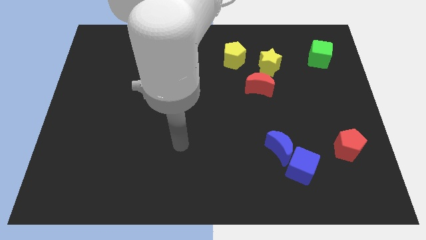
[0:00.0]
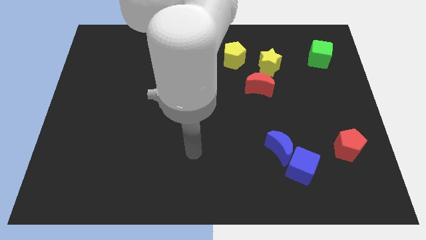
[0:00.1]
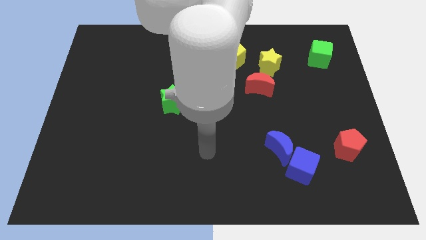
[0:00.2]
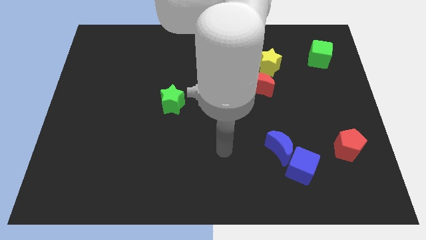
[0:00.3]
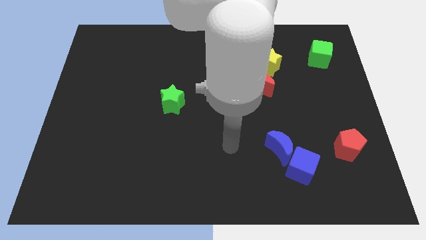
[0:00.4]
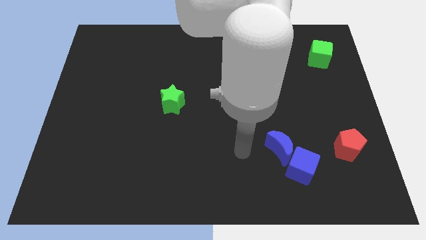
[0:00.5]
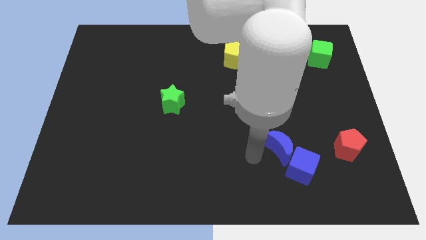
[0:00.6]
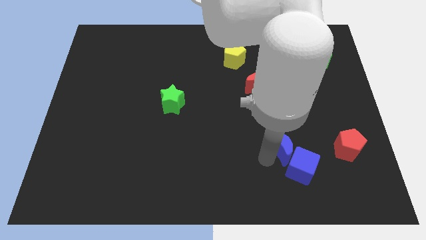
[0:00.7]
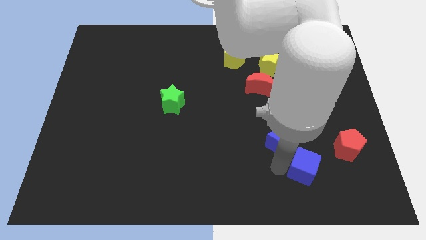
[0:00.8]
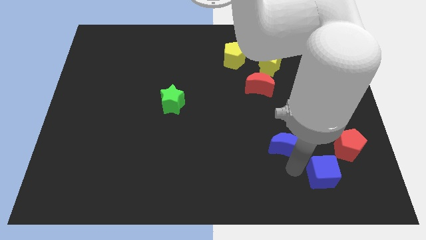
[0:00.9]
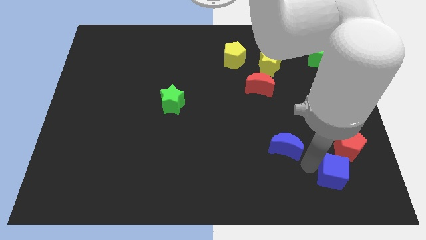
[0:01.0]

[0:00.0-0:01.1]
separate the blue moon from the blue cube

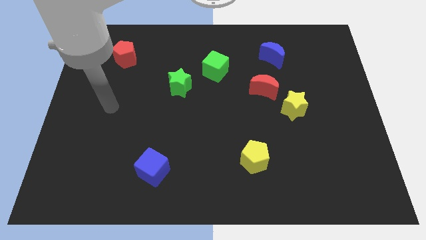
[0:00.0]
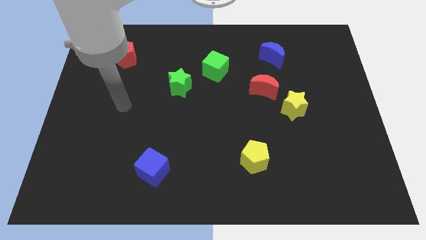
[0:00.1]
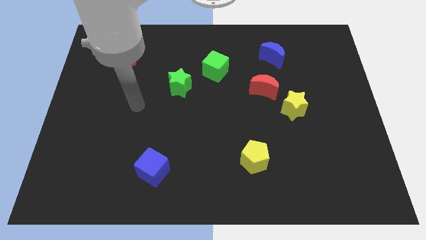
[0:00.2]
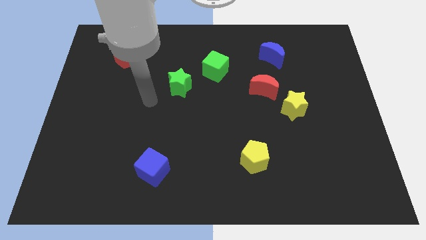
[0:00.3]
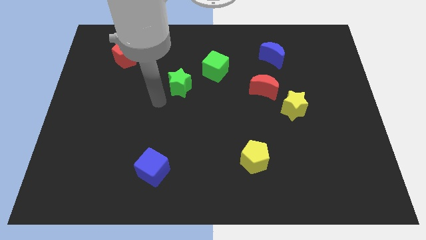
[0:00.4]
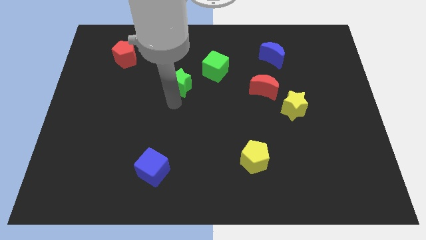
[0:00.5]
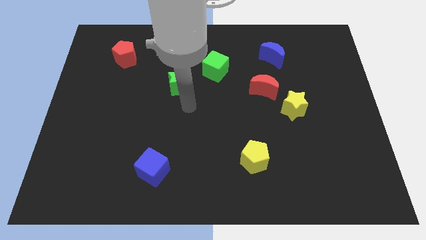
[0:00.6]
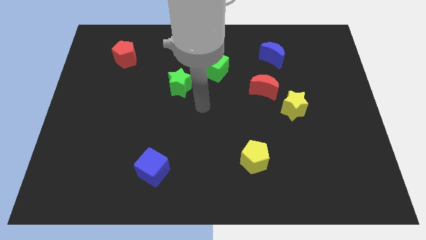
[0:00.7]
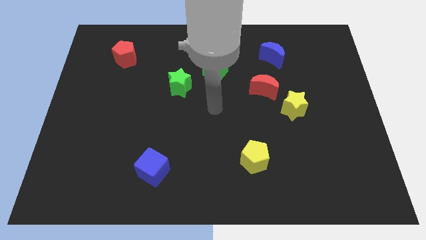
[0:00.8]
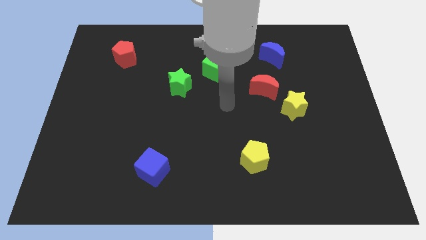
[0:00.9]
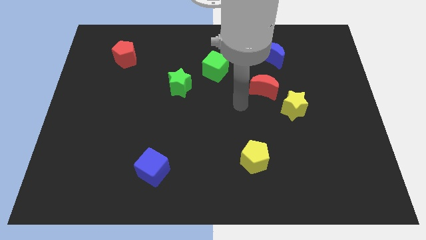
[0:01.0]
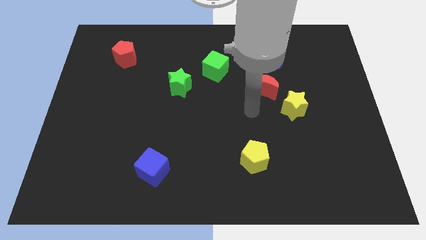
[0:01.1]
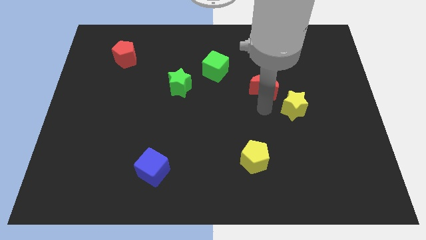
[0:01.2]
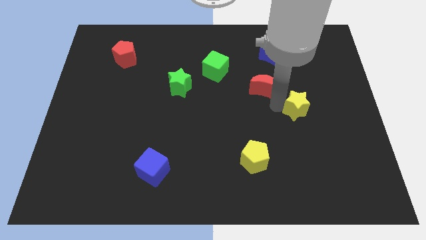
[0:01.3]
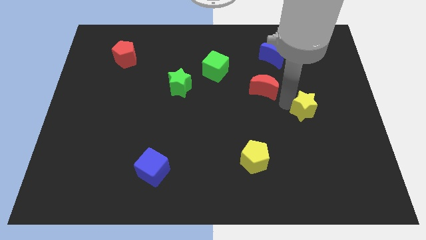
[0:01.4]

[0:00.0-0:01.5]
separate the red moon from the yellow star

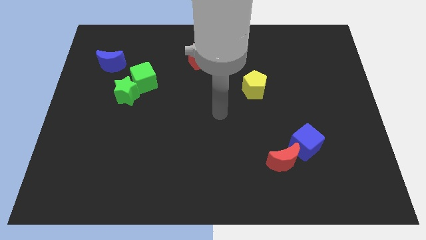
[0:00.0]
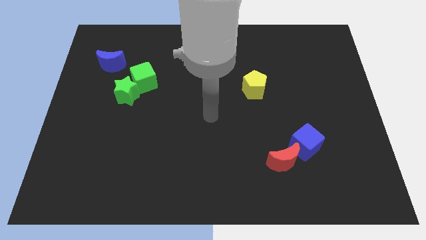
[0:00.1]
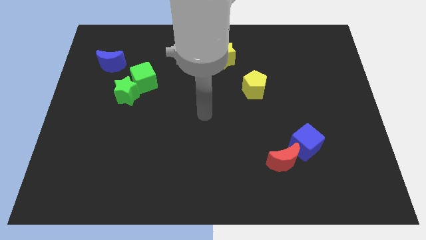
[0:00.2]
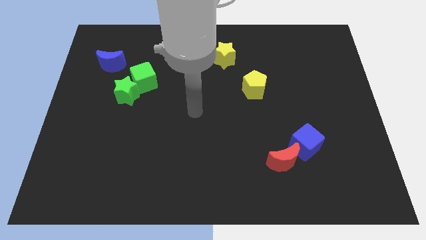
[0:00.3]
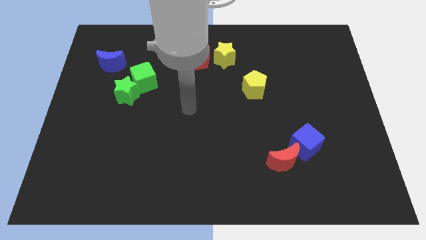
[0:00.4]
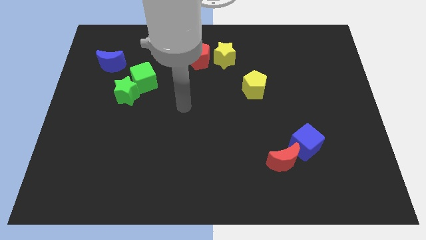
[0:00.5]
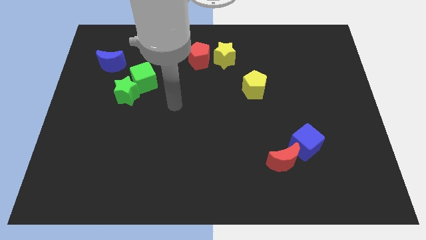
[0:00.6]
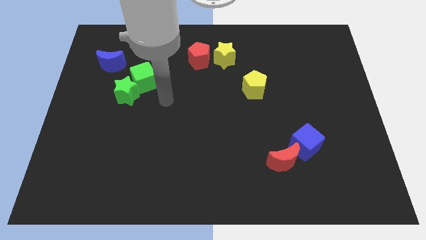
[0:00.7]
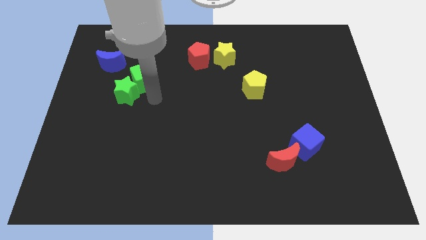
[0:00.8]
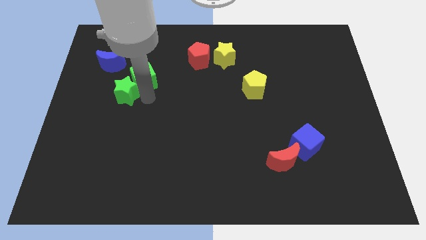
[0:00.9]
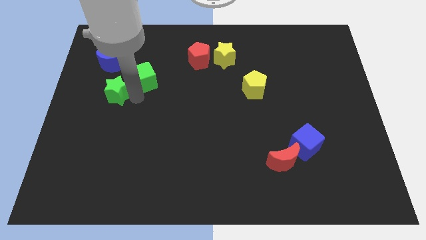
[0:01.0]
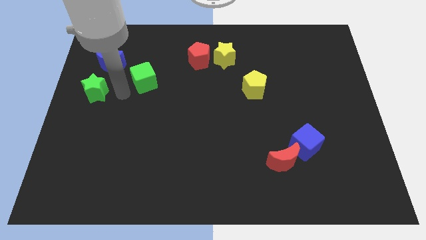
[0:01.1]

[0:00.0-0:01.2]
separate the green cube from the green star

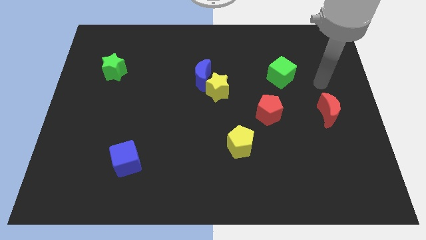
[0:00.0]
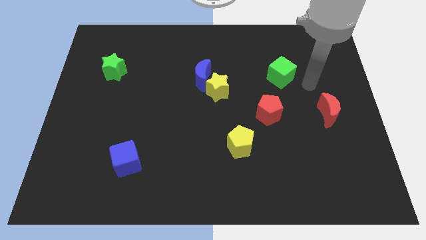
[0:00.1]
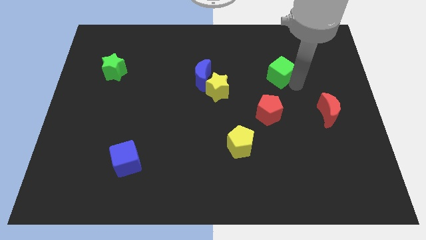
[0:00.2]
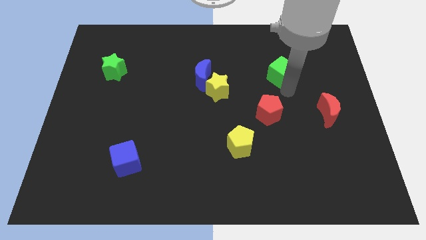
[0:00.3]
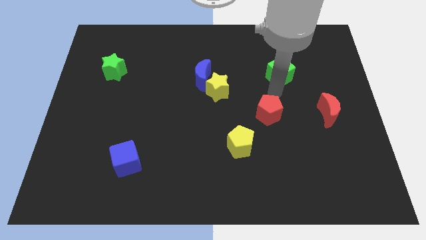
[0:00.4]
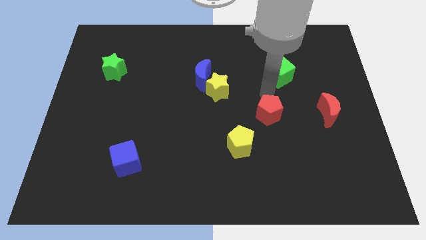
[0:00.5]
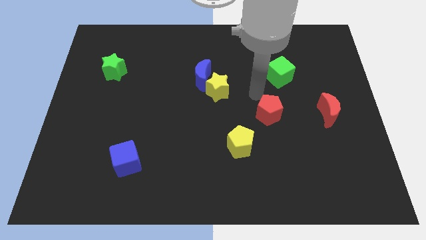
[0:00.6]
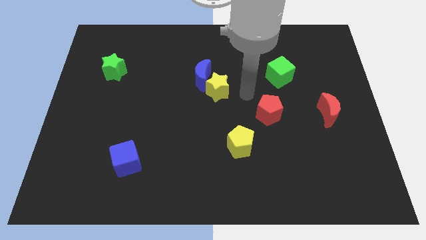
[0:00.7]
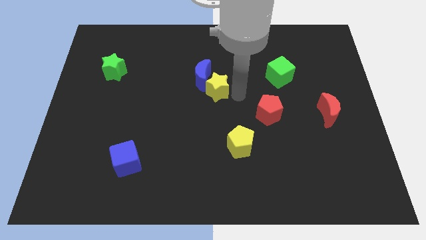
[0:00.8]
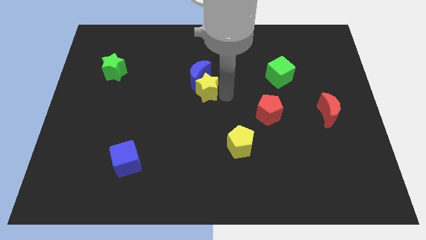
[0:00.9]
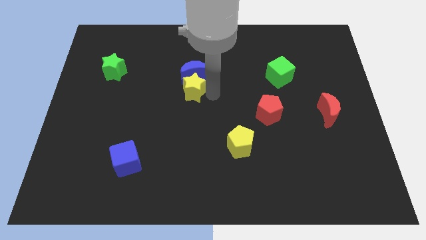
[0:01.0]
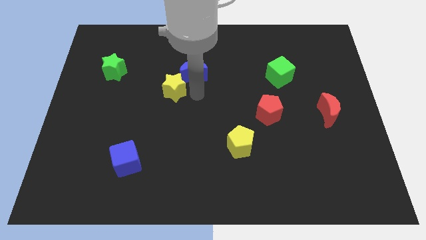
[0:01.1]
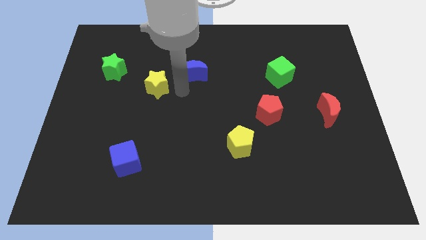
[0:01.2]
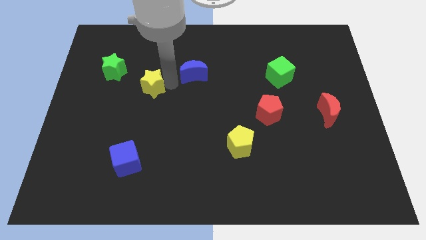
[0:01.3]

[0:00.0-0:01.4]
pull the blue moon apart from the yellow star

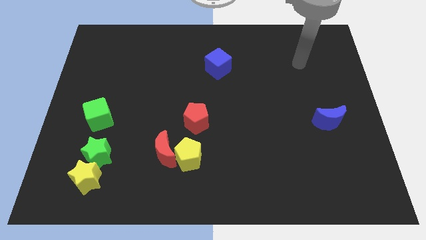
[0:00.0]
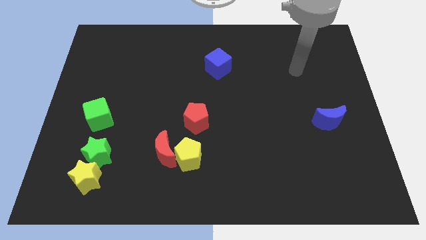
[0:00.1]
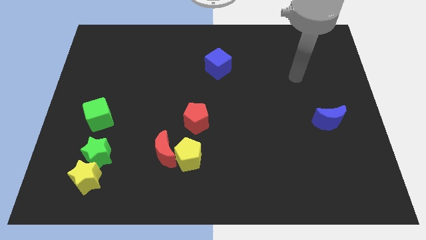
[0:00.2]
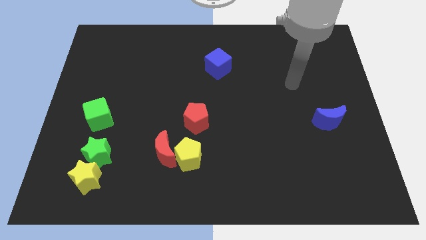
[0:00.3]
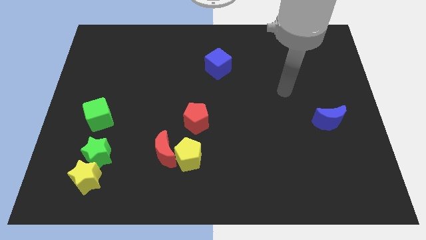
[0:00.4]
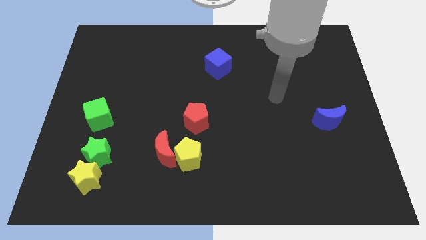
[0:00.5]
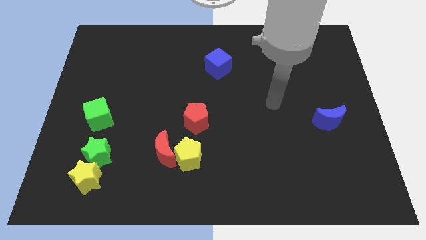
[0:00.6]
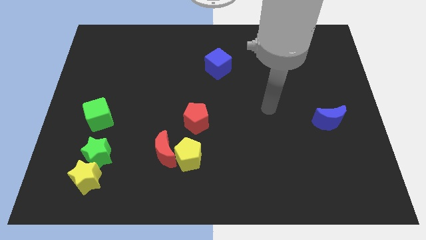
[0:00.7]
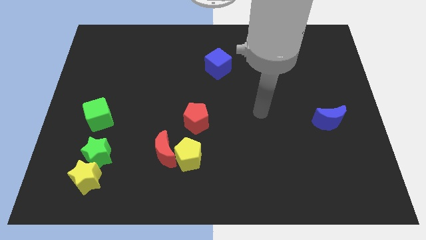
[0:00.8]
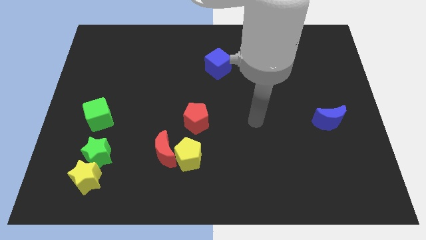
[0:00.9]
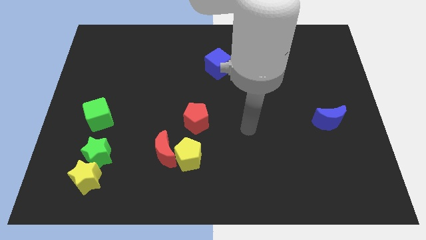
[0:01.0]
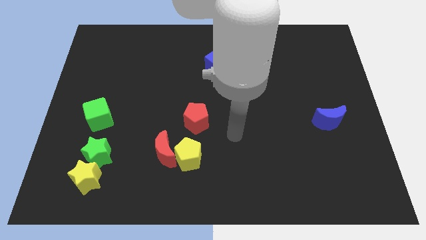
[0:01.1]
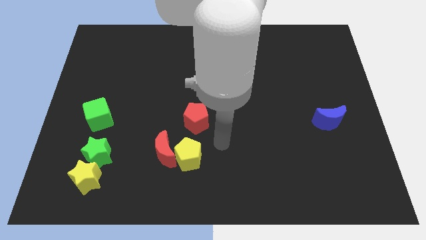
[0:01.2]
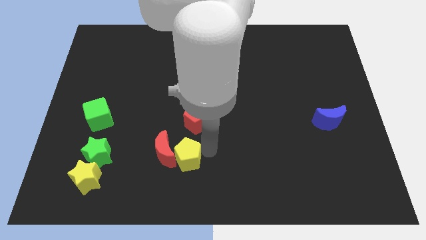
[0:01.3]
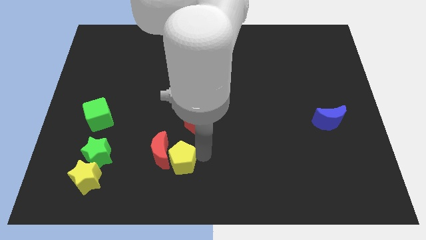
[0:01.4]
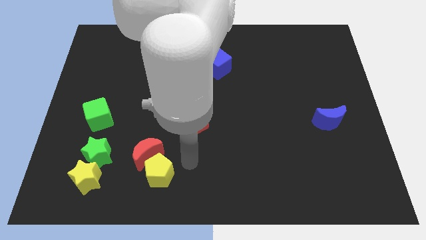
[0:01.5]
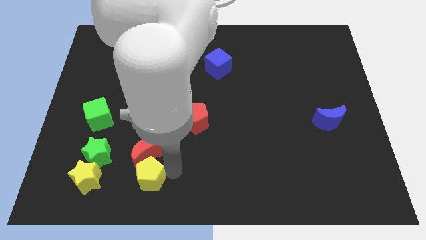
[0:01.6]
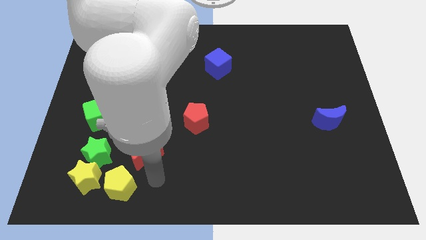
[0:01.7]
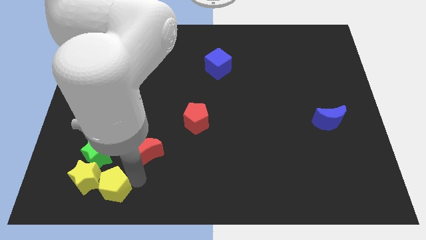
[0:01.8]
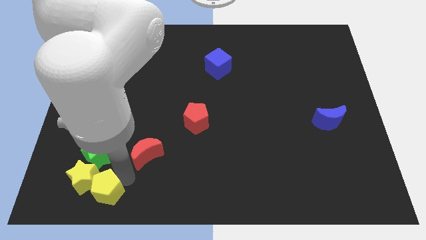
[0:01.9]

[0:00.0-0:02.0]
pull the red moon apart from the yellow pentagon

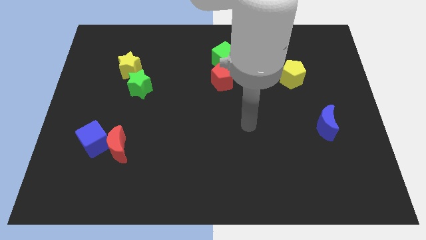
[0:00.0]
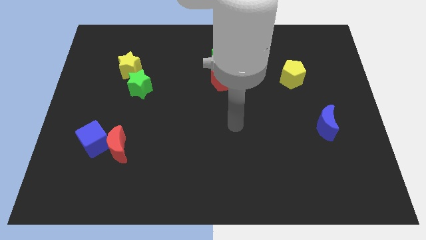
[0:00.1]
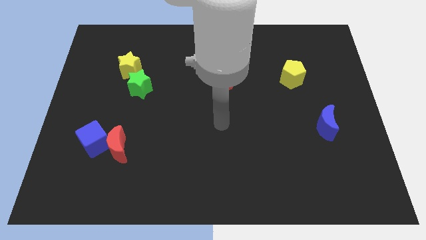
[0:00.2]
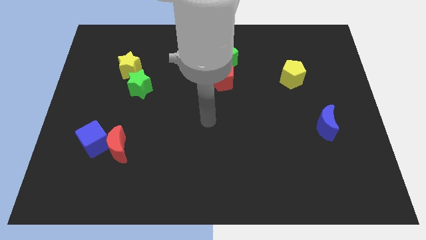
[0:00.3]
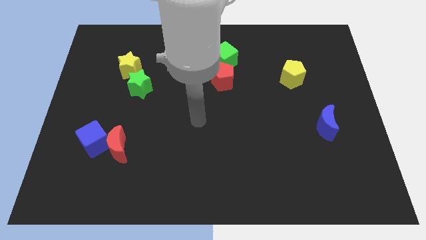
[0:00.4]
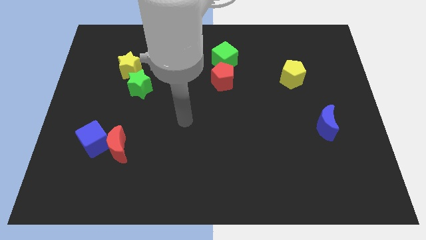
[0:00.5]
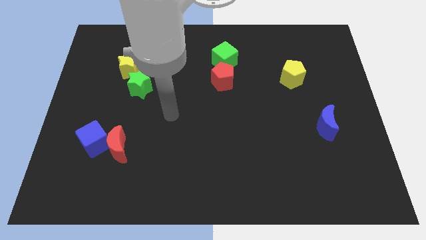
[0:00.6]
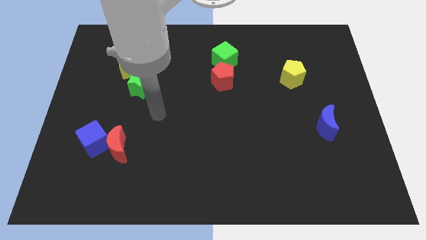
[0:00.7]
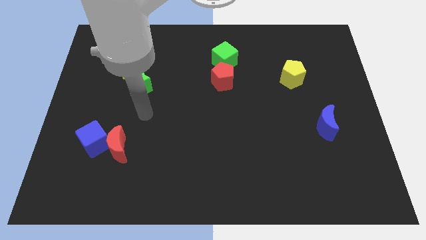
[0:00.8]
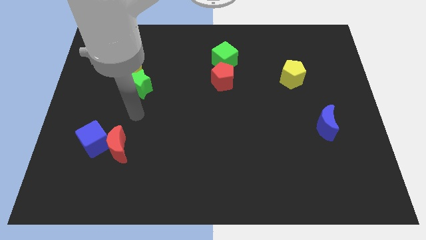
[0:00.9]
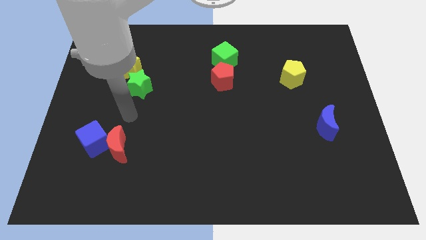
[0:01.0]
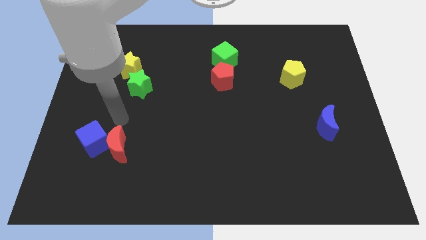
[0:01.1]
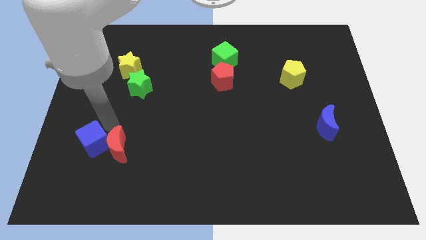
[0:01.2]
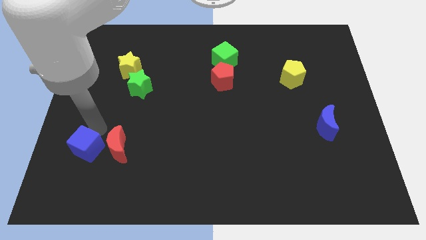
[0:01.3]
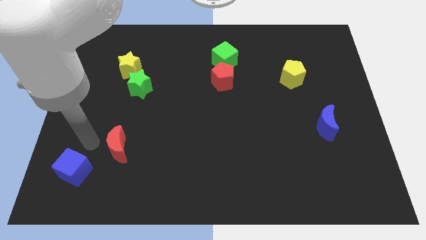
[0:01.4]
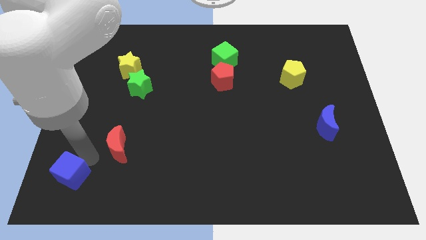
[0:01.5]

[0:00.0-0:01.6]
separate the red moon from the blue cube

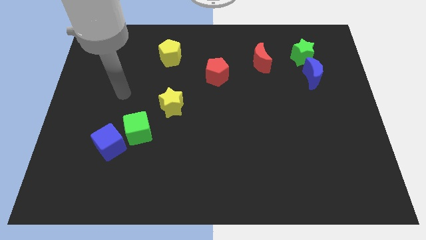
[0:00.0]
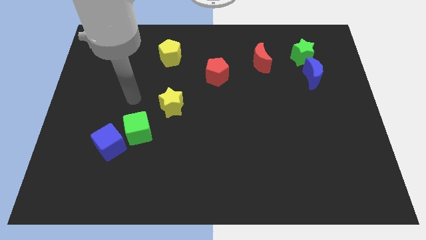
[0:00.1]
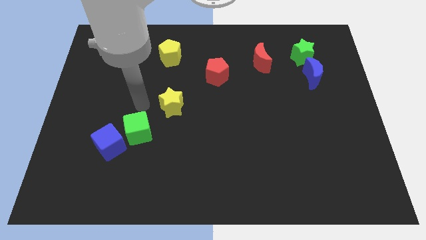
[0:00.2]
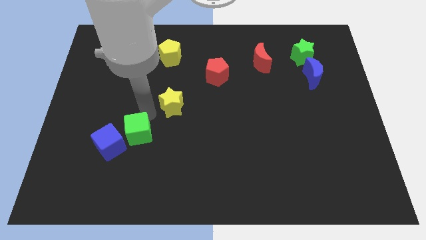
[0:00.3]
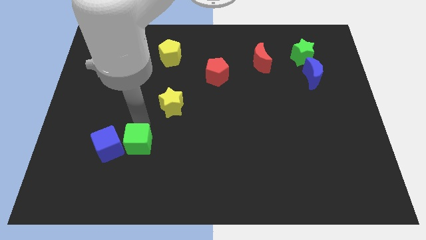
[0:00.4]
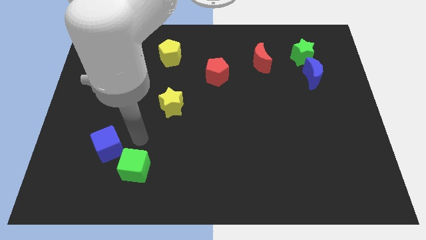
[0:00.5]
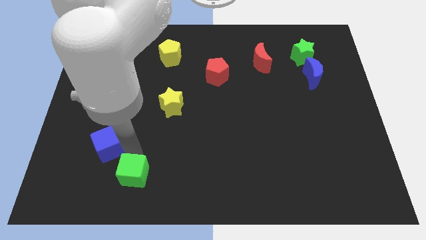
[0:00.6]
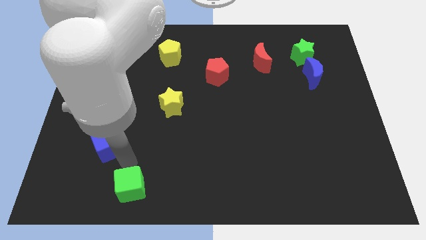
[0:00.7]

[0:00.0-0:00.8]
pull the blue cube apart from the green cube
